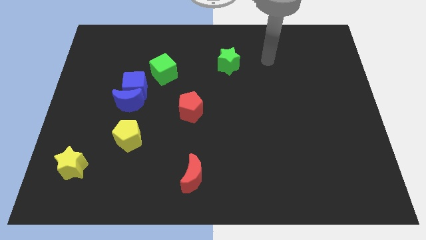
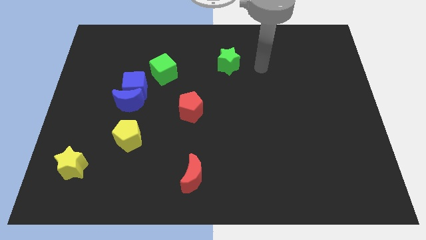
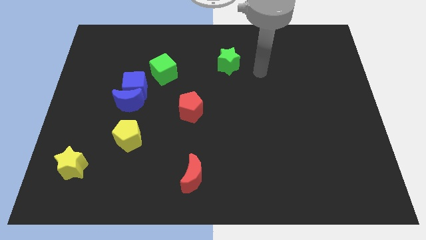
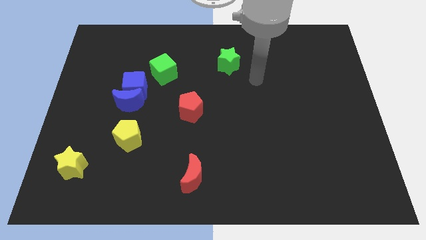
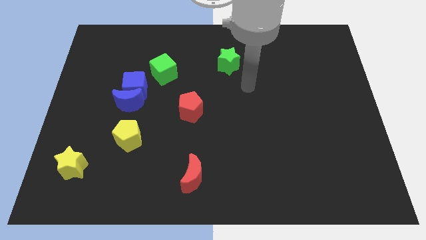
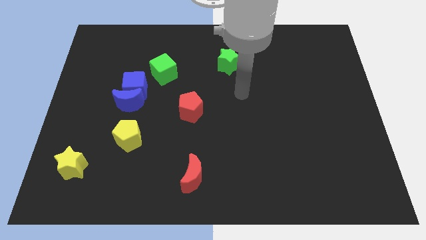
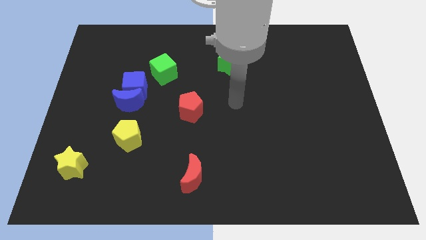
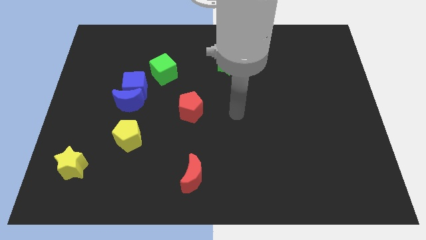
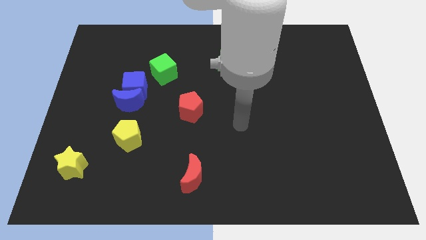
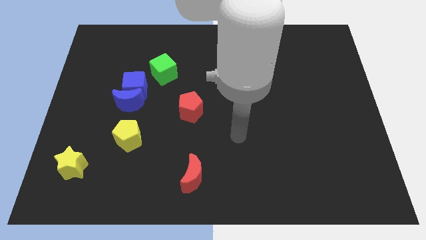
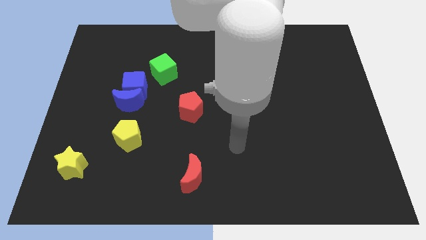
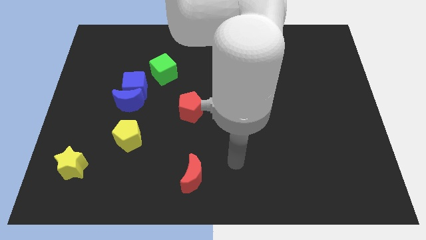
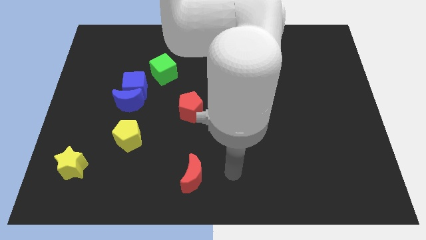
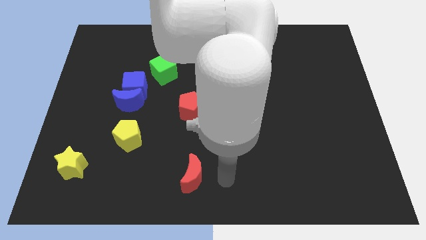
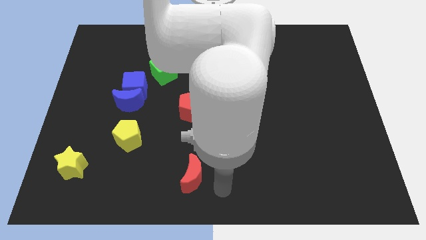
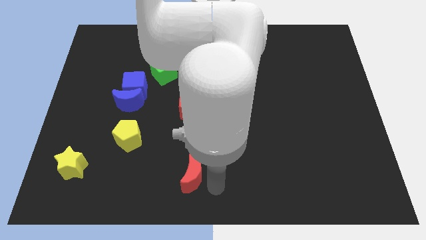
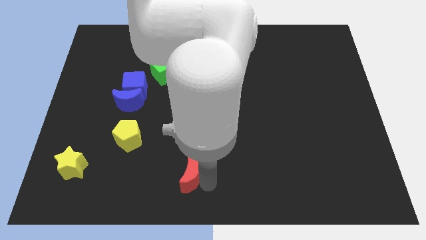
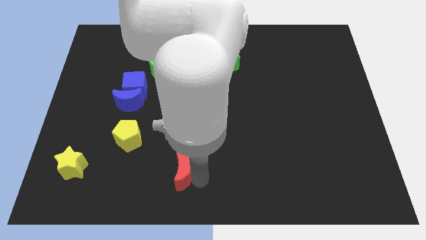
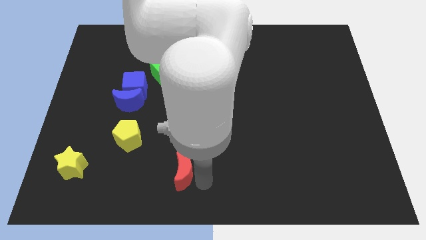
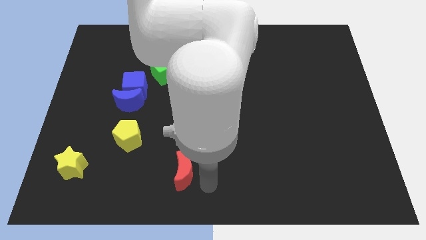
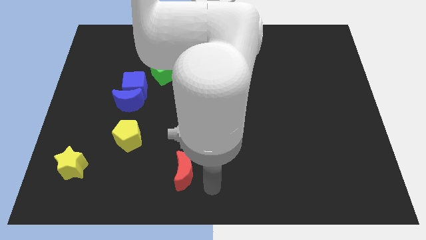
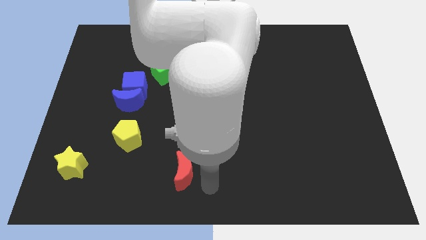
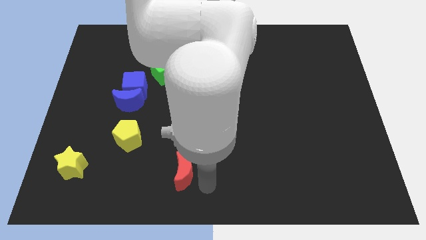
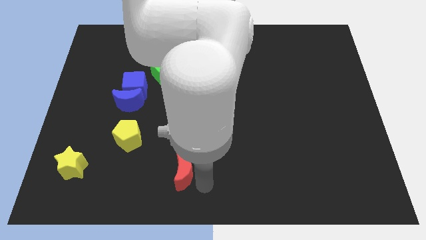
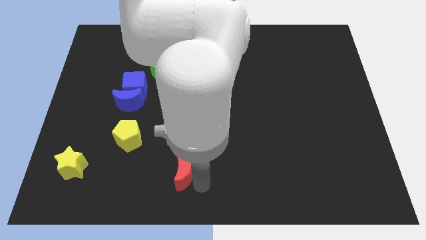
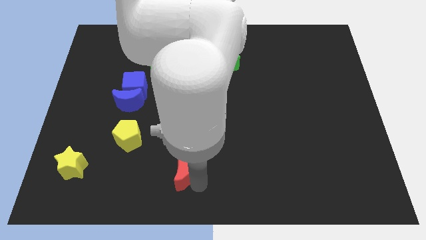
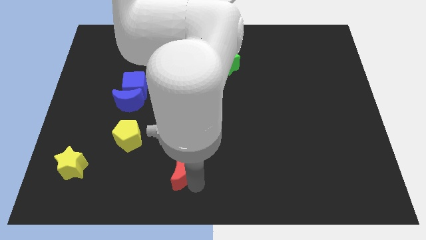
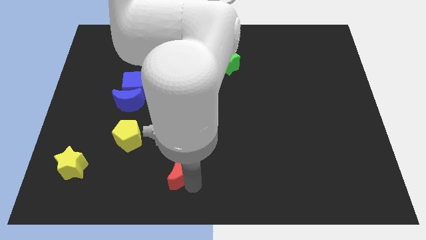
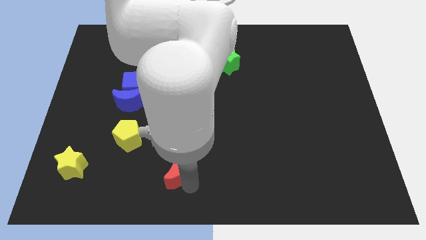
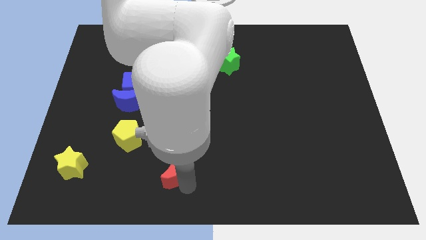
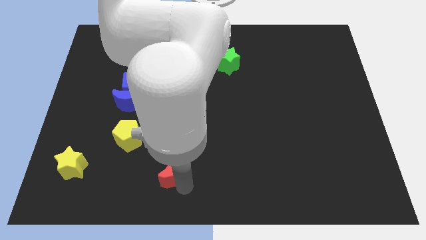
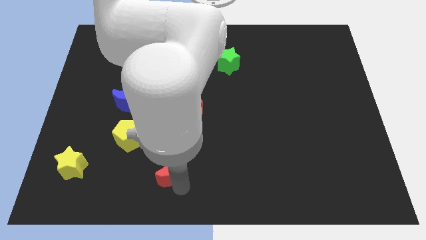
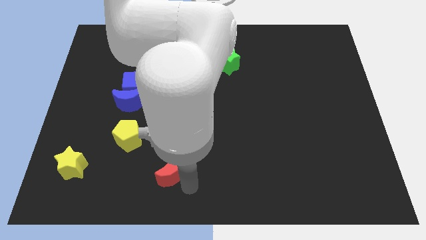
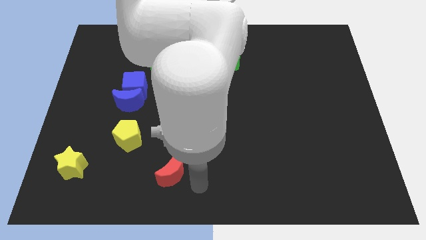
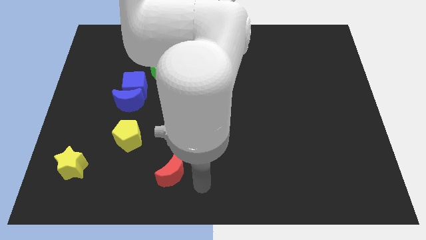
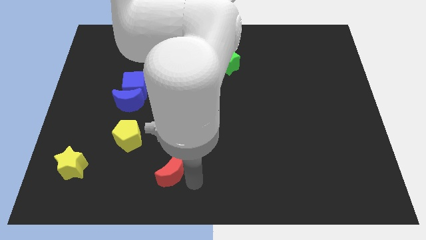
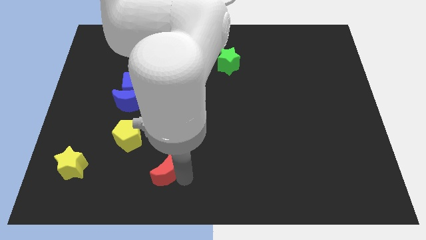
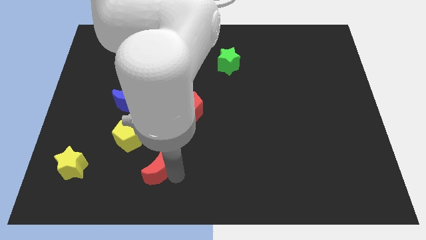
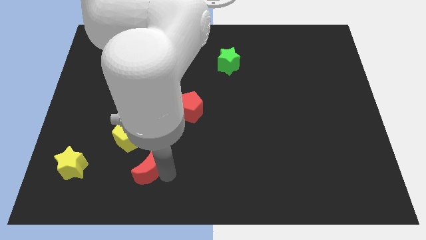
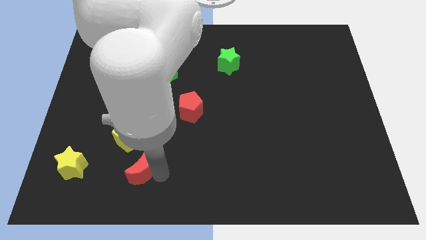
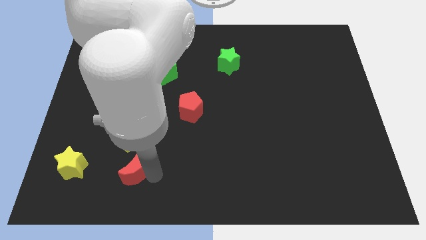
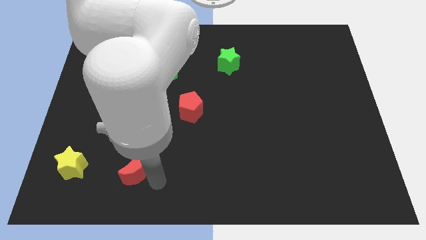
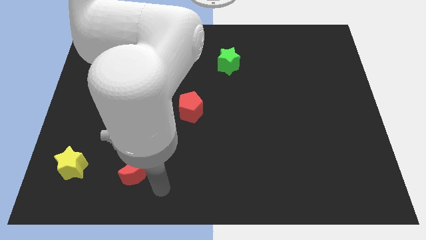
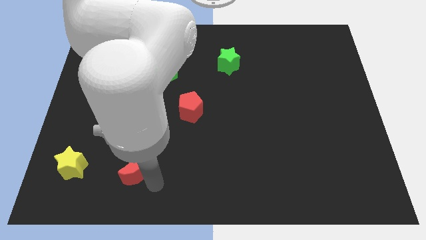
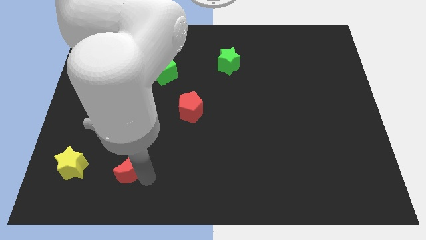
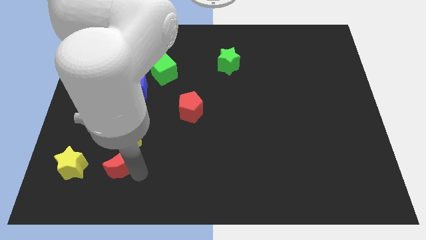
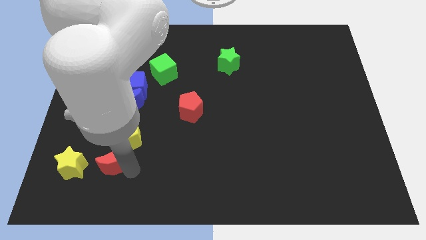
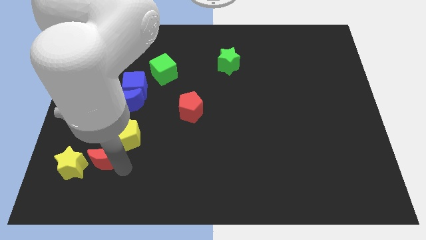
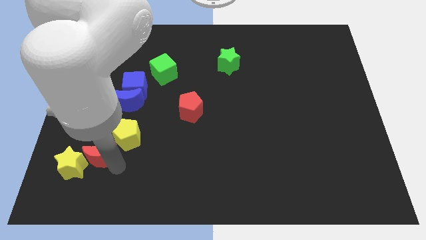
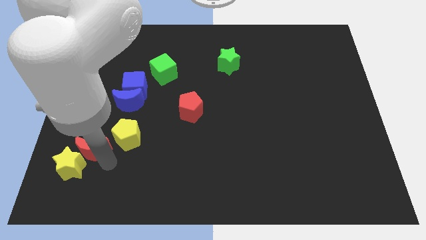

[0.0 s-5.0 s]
slide the red moon to the top side of the yellow star

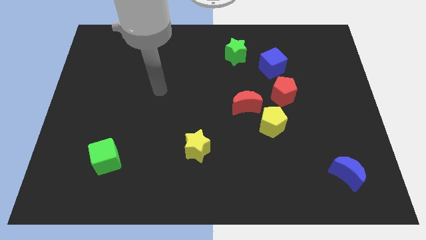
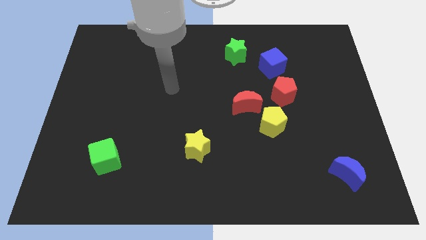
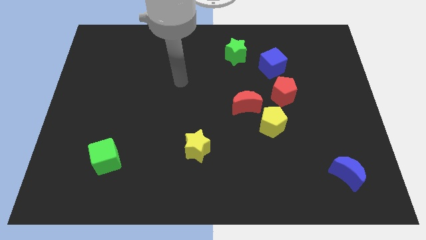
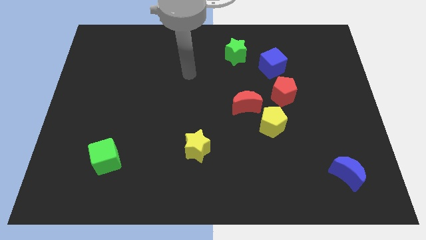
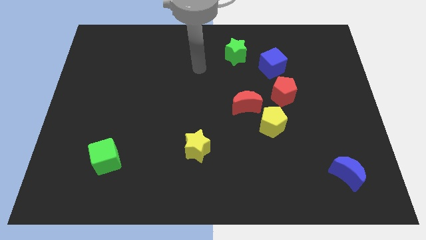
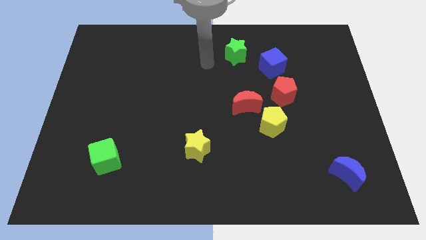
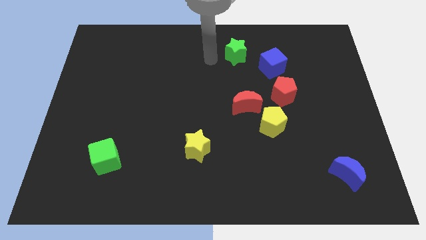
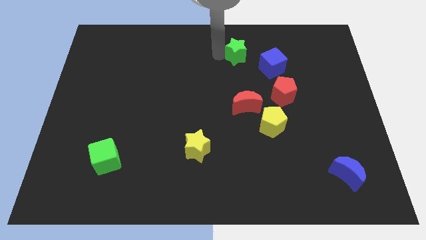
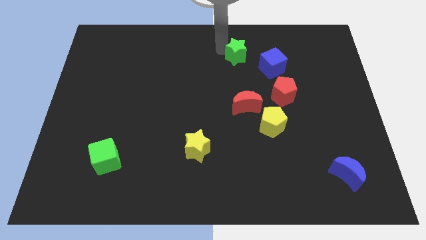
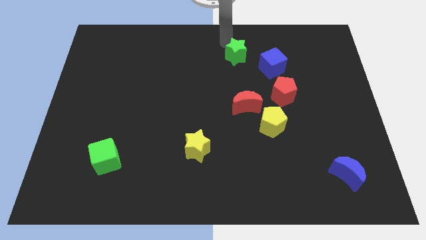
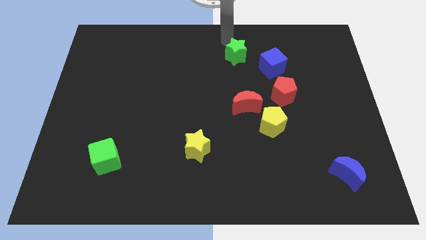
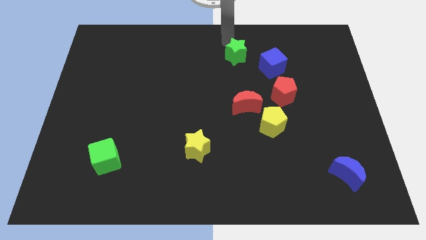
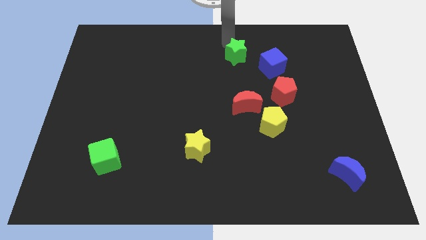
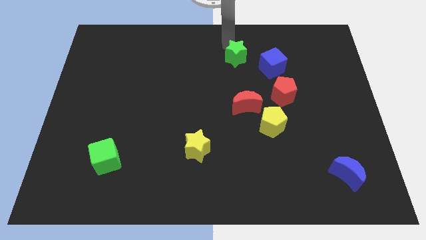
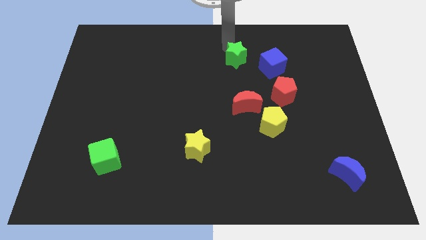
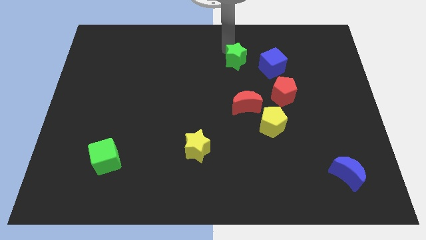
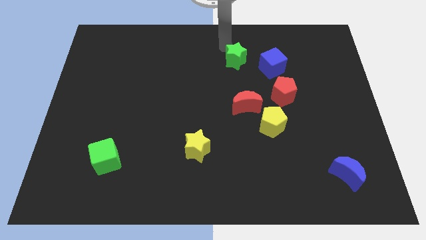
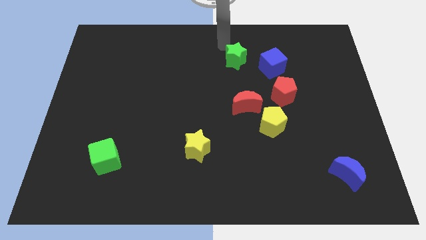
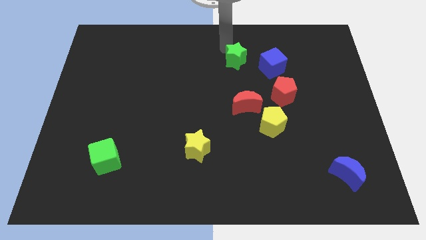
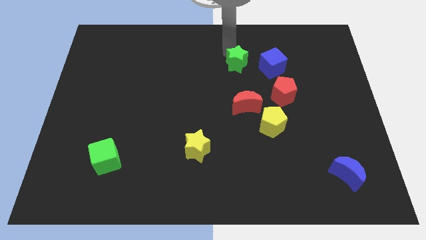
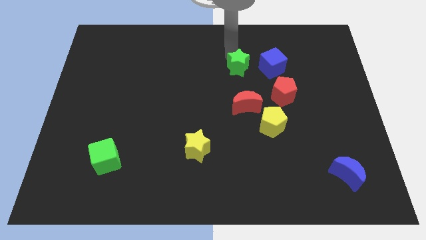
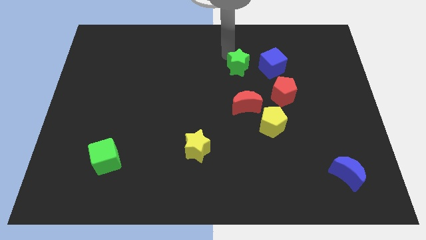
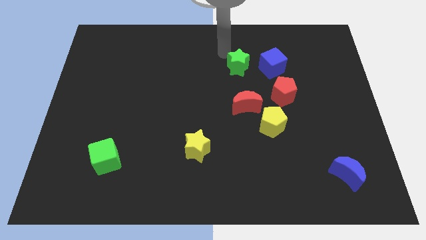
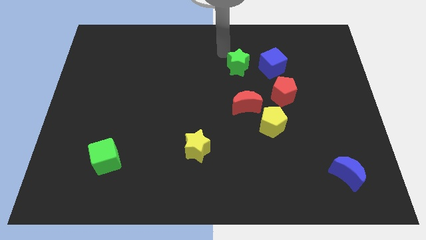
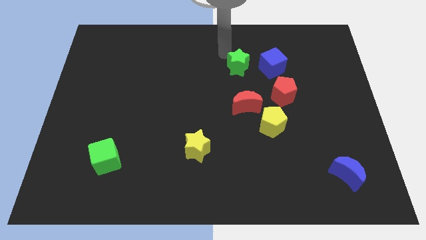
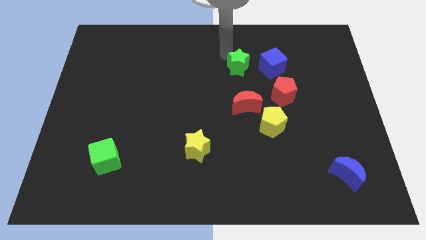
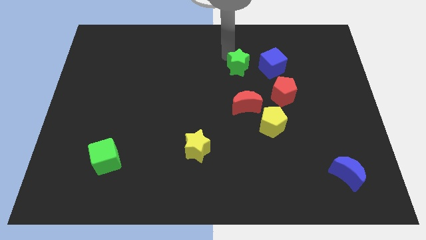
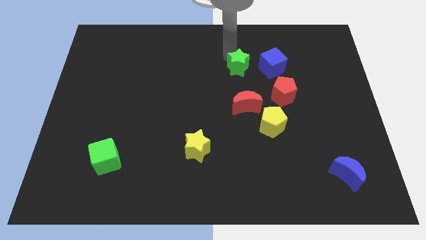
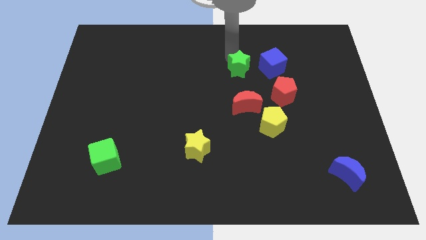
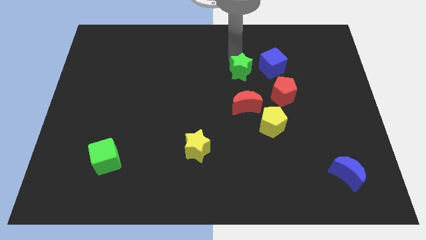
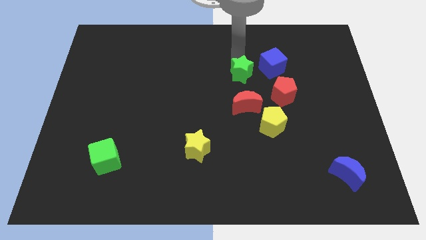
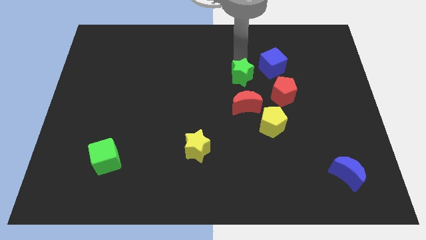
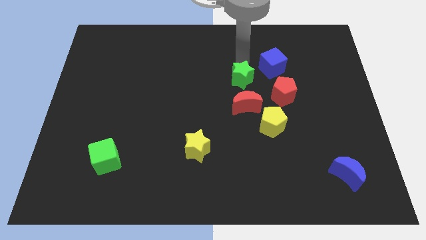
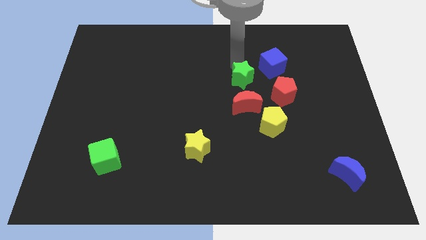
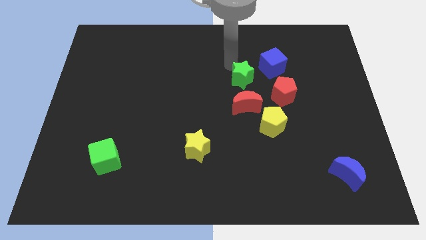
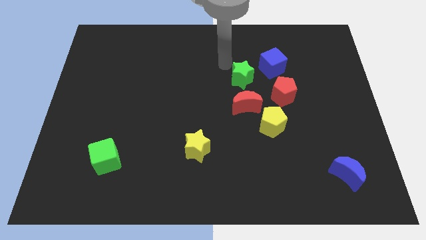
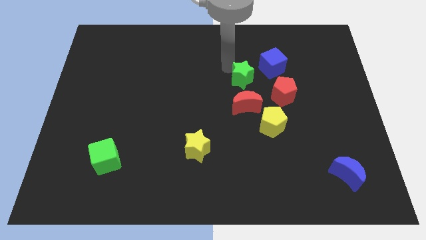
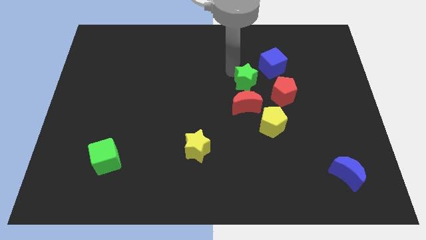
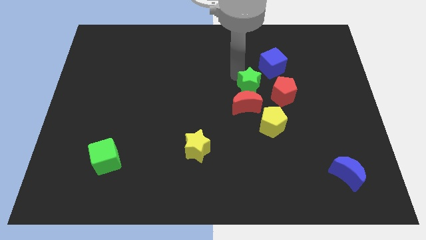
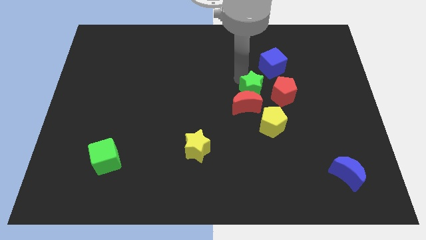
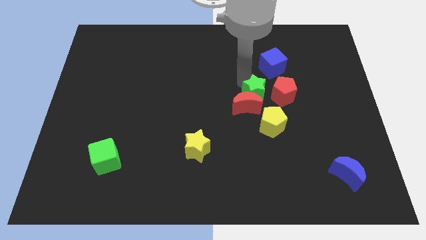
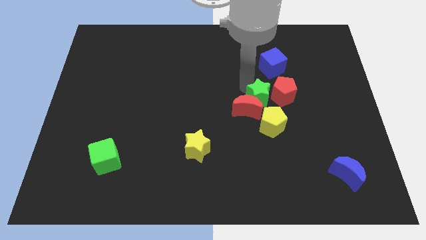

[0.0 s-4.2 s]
slide the green star to the bottom side of the blue cube
